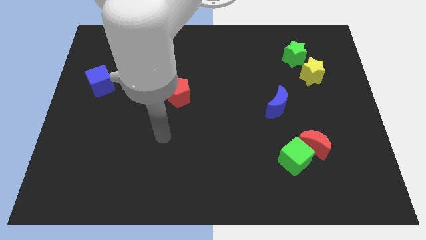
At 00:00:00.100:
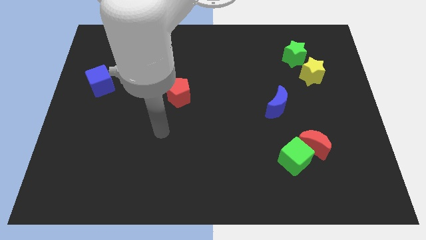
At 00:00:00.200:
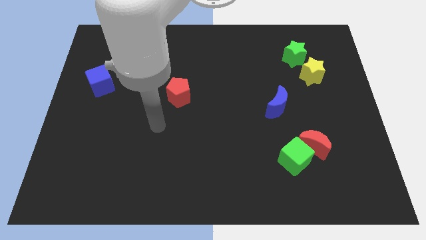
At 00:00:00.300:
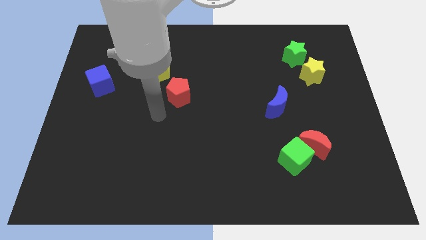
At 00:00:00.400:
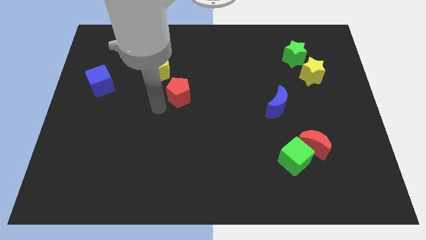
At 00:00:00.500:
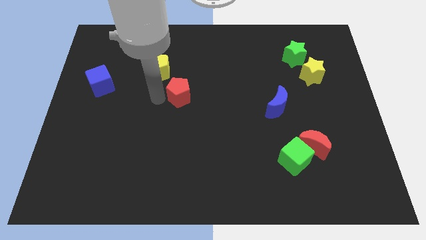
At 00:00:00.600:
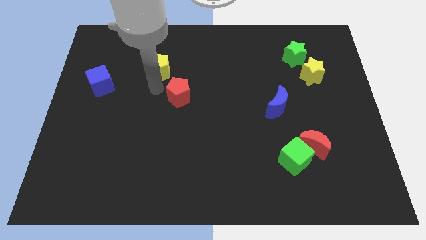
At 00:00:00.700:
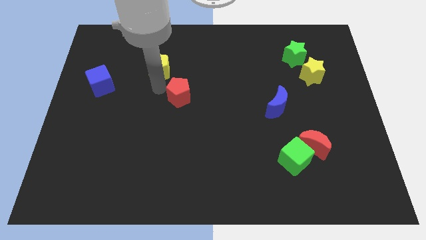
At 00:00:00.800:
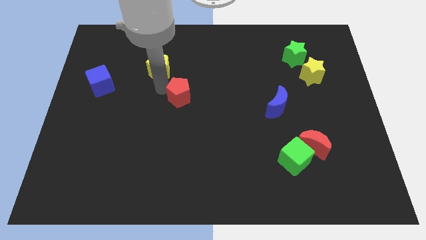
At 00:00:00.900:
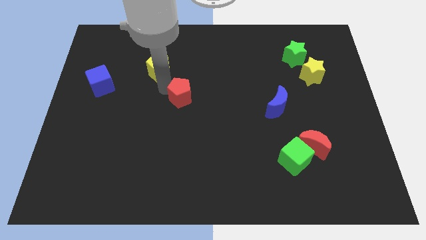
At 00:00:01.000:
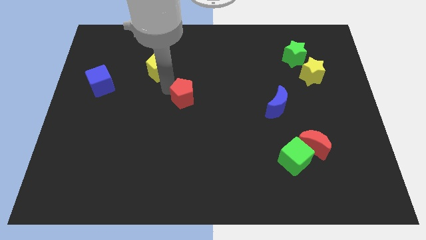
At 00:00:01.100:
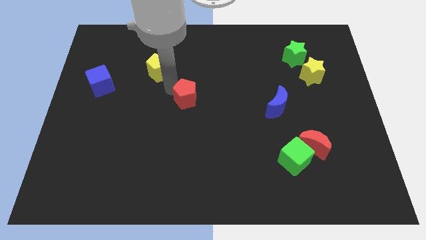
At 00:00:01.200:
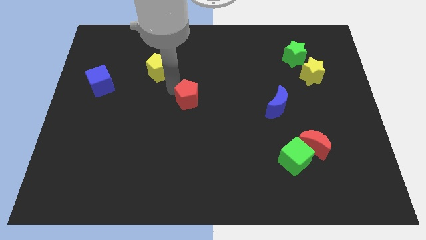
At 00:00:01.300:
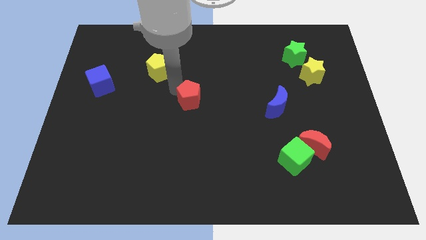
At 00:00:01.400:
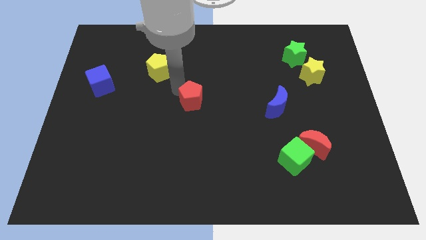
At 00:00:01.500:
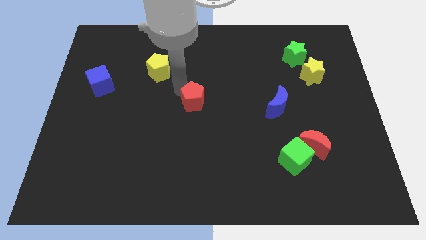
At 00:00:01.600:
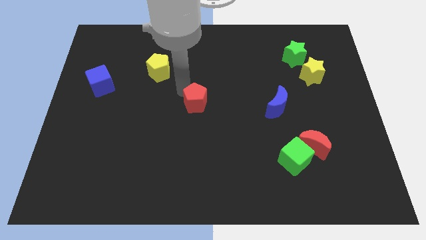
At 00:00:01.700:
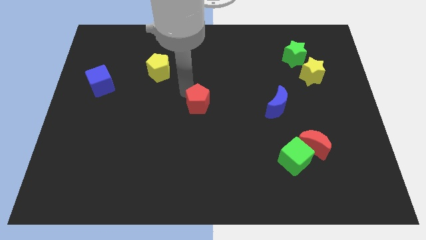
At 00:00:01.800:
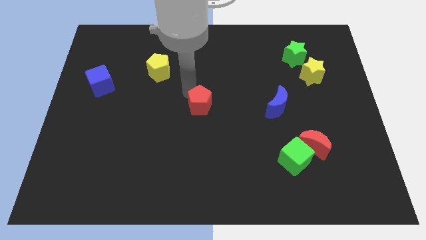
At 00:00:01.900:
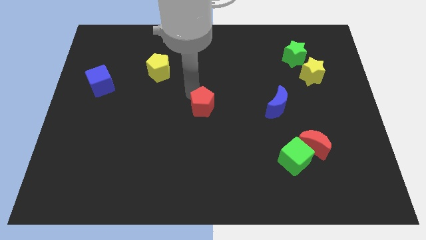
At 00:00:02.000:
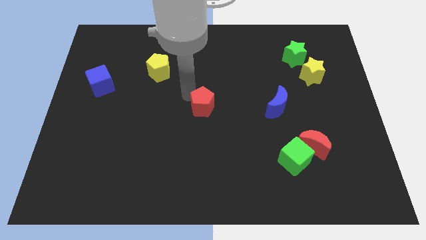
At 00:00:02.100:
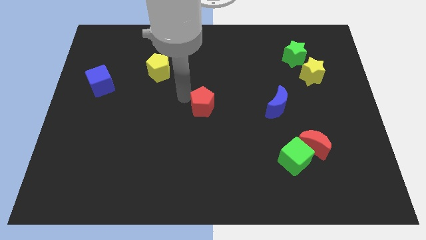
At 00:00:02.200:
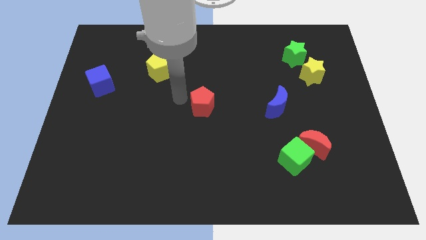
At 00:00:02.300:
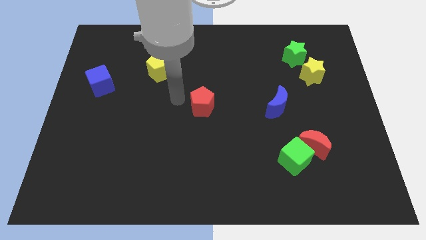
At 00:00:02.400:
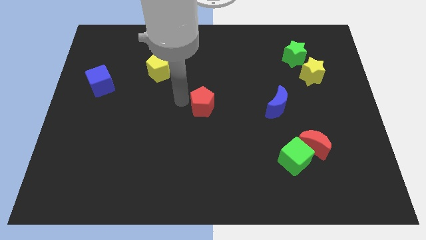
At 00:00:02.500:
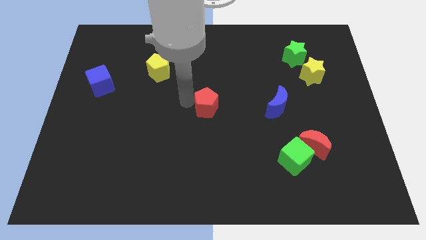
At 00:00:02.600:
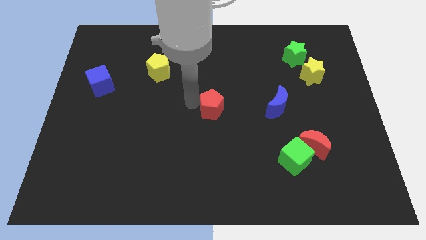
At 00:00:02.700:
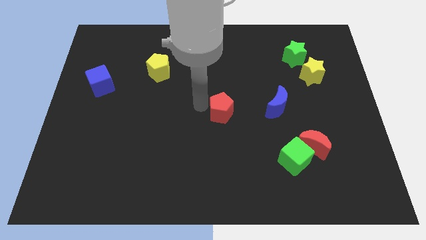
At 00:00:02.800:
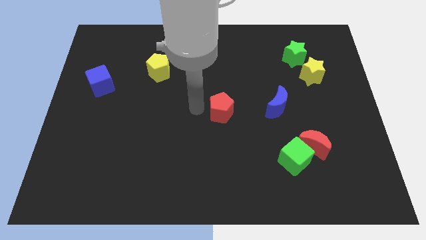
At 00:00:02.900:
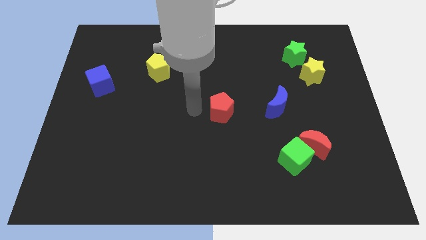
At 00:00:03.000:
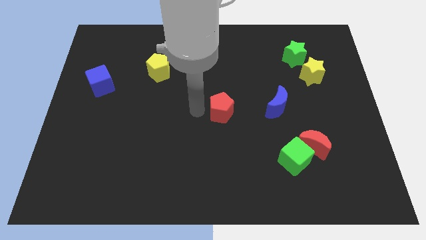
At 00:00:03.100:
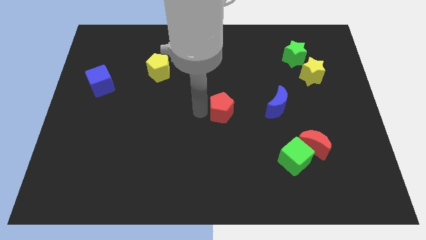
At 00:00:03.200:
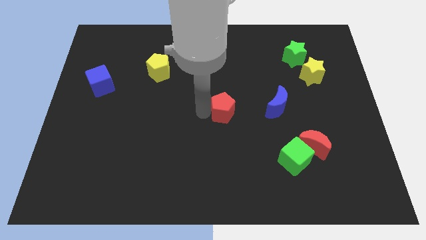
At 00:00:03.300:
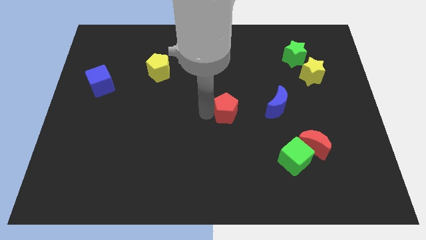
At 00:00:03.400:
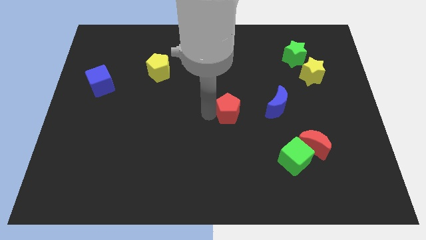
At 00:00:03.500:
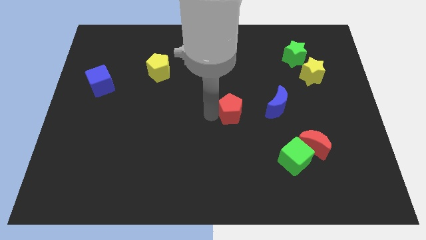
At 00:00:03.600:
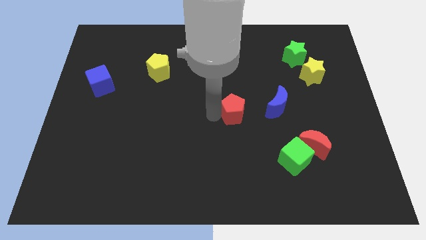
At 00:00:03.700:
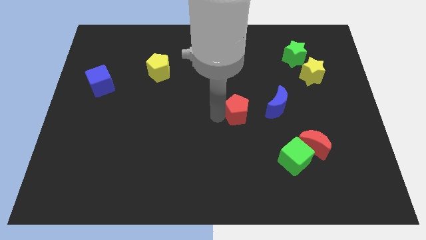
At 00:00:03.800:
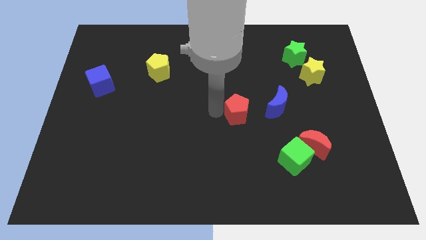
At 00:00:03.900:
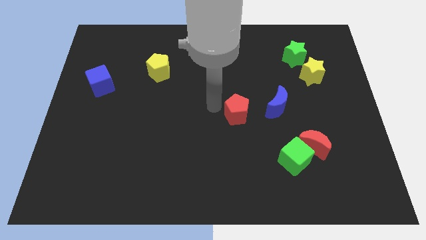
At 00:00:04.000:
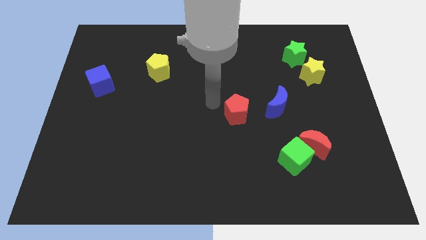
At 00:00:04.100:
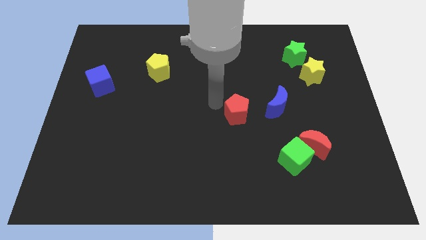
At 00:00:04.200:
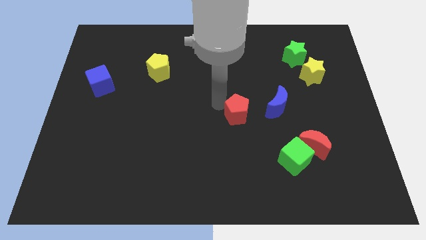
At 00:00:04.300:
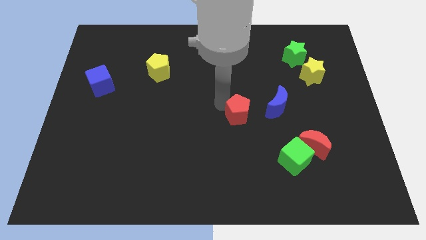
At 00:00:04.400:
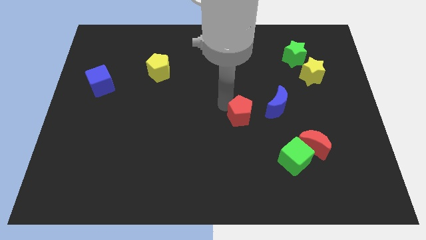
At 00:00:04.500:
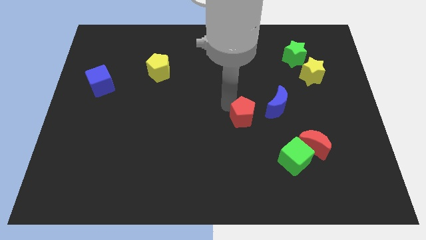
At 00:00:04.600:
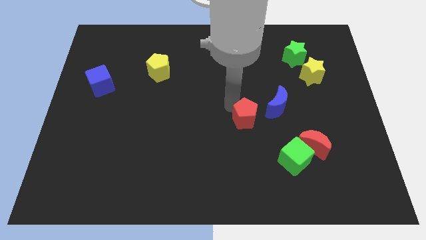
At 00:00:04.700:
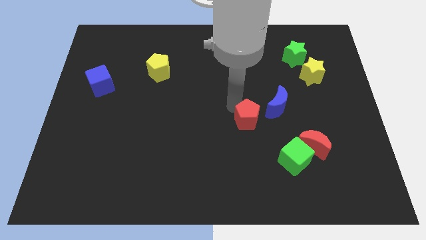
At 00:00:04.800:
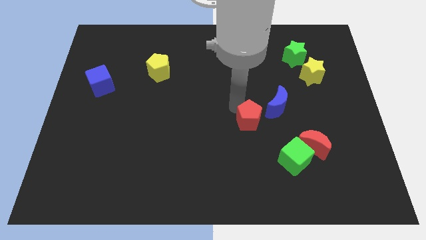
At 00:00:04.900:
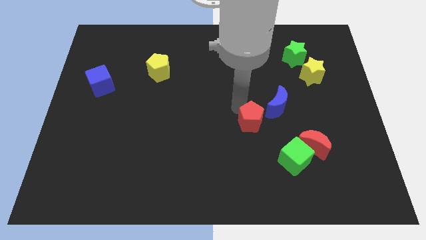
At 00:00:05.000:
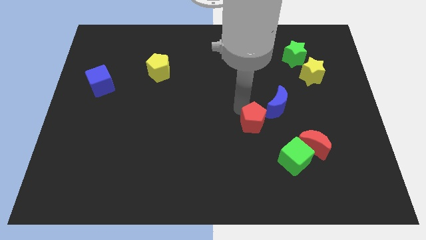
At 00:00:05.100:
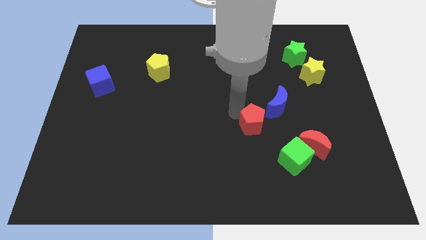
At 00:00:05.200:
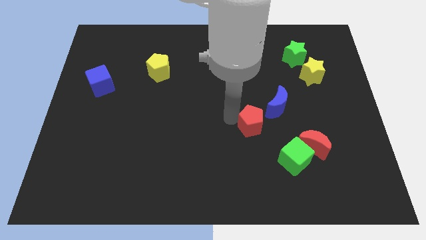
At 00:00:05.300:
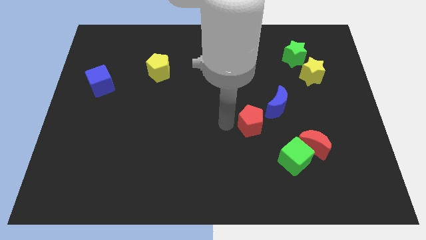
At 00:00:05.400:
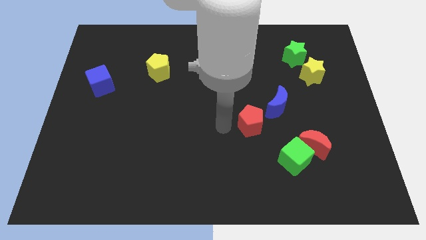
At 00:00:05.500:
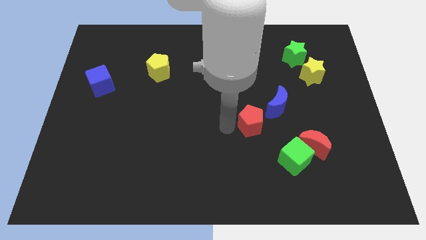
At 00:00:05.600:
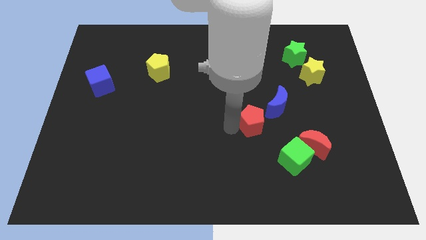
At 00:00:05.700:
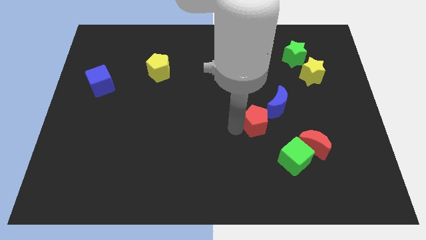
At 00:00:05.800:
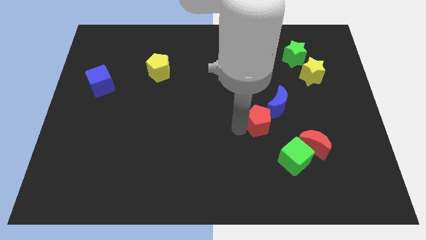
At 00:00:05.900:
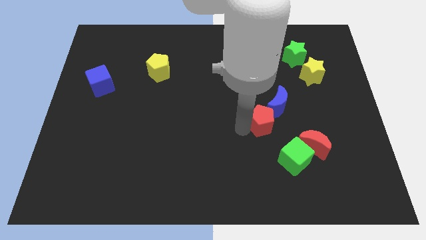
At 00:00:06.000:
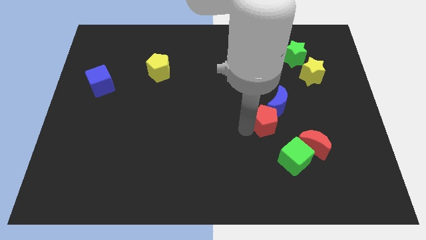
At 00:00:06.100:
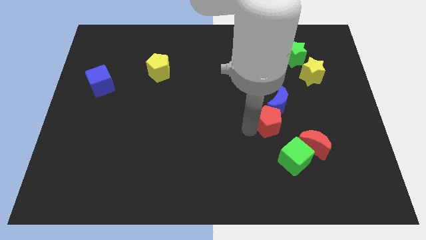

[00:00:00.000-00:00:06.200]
slide the red pentagon above the green cube

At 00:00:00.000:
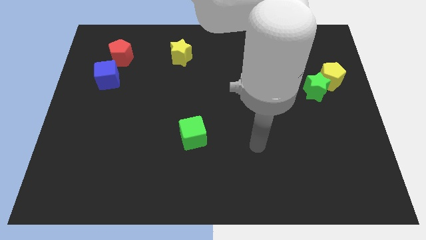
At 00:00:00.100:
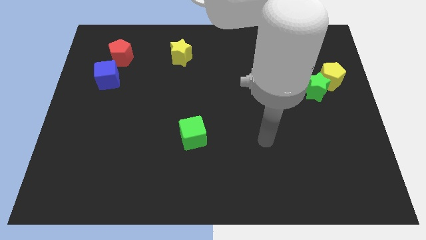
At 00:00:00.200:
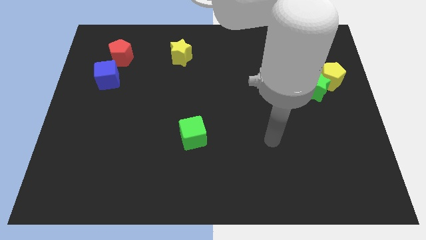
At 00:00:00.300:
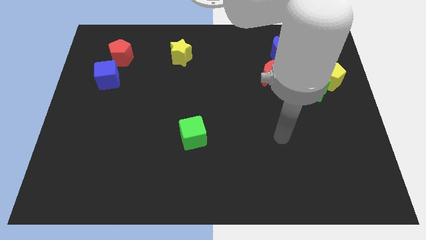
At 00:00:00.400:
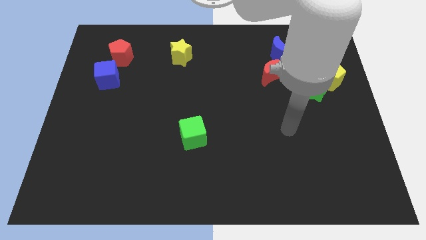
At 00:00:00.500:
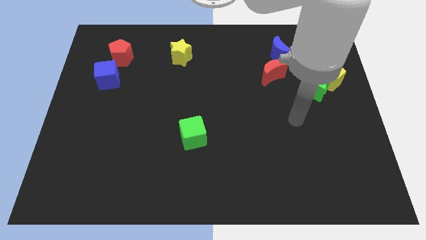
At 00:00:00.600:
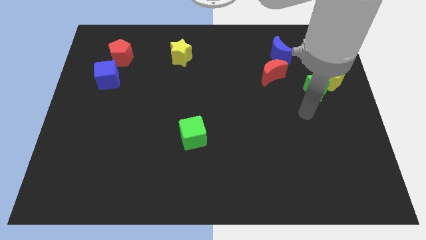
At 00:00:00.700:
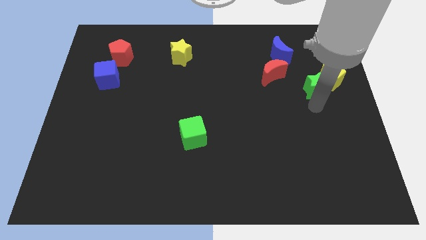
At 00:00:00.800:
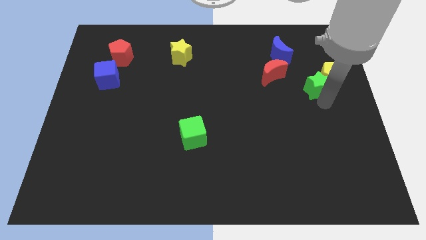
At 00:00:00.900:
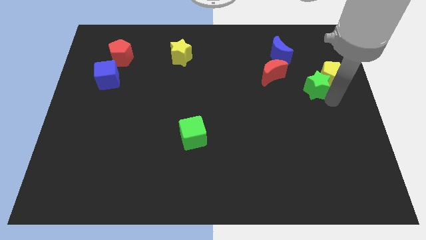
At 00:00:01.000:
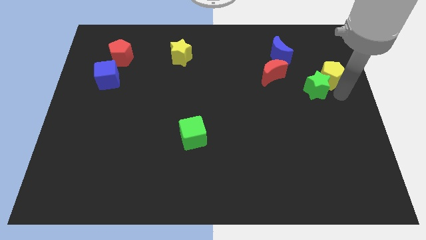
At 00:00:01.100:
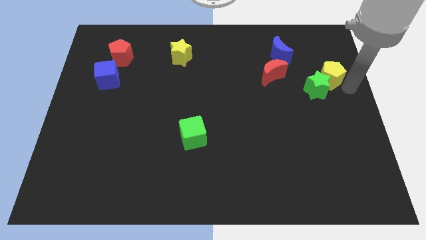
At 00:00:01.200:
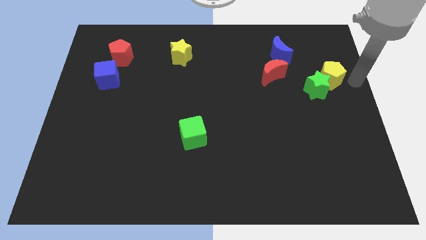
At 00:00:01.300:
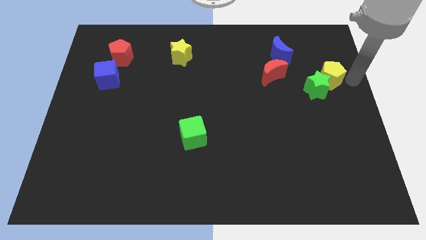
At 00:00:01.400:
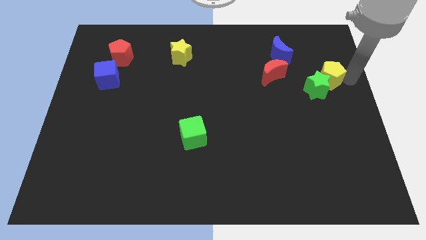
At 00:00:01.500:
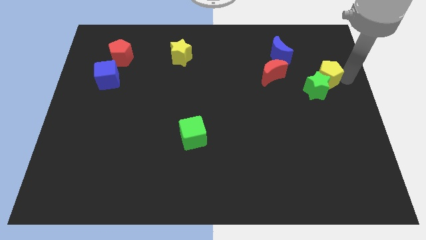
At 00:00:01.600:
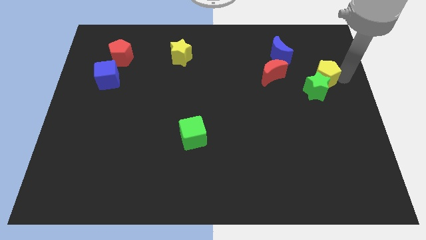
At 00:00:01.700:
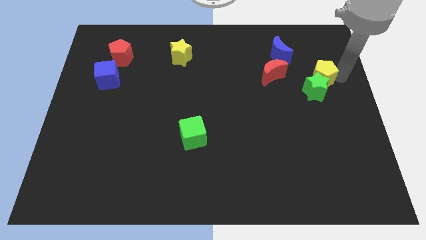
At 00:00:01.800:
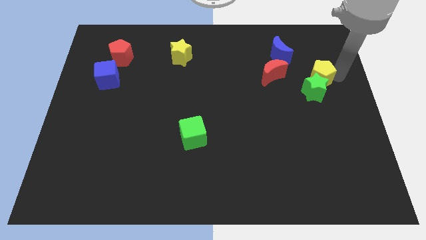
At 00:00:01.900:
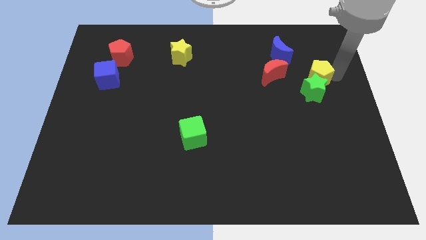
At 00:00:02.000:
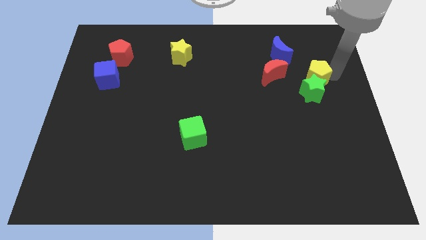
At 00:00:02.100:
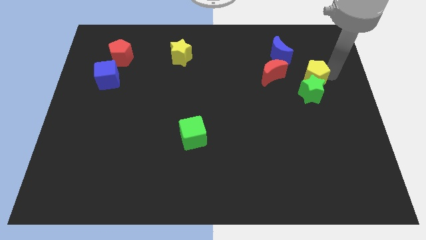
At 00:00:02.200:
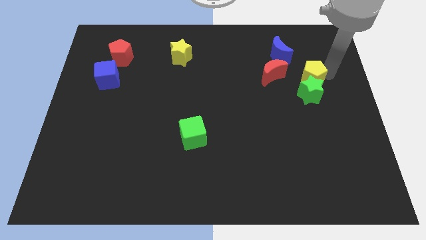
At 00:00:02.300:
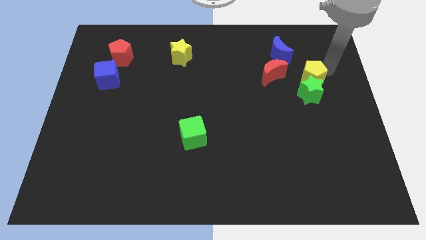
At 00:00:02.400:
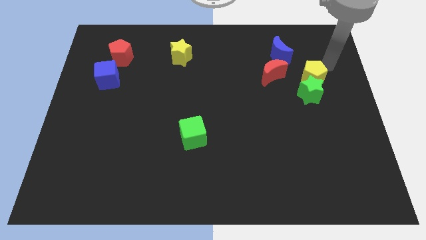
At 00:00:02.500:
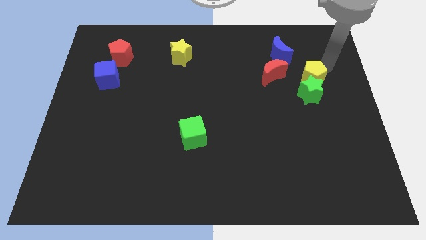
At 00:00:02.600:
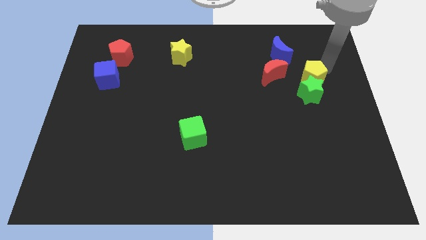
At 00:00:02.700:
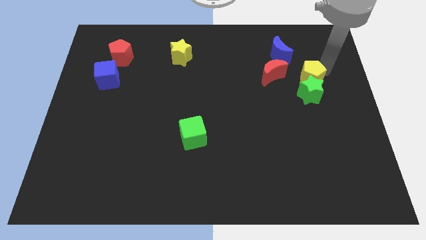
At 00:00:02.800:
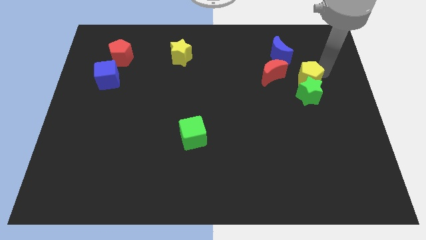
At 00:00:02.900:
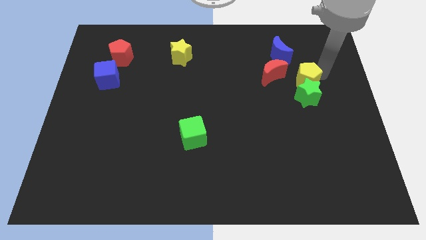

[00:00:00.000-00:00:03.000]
put the yellow pentagon to the bottom right of the red moon
